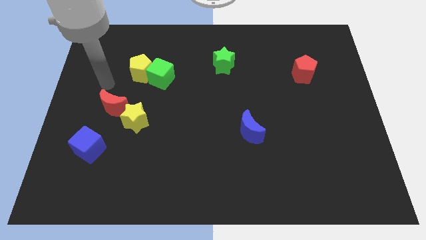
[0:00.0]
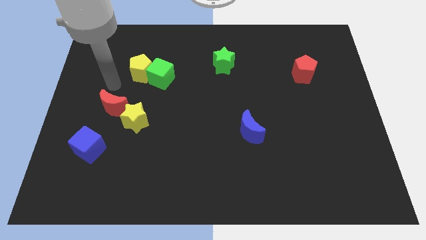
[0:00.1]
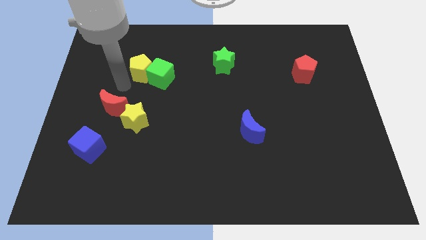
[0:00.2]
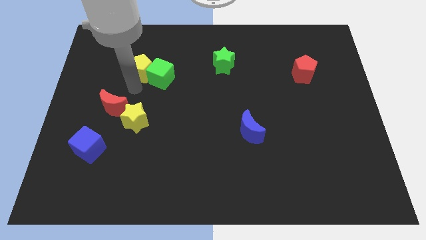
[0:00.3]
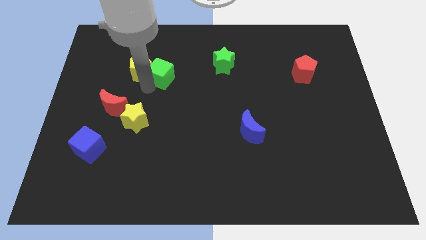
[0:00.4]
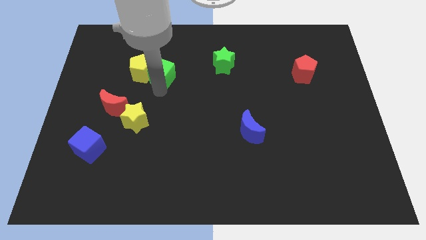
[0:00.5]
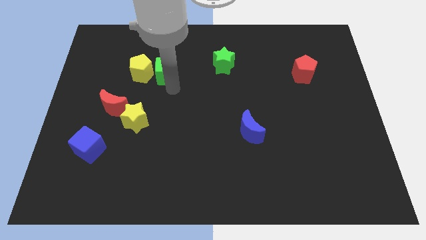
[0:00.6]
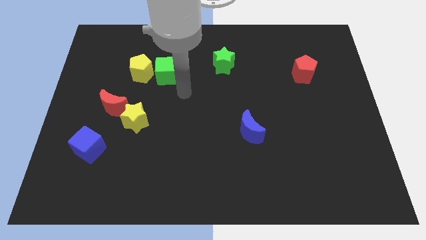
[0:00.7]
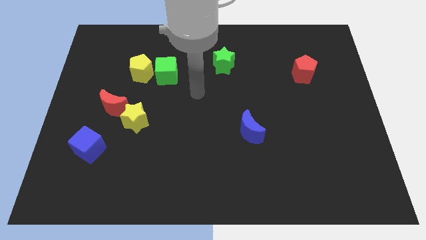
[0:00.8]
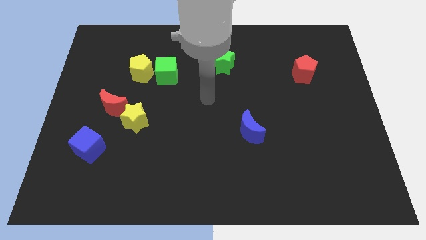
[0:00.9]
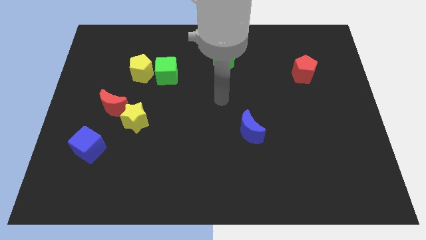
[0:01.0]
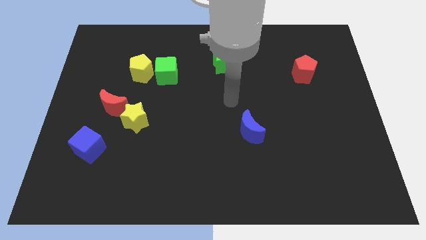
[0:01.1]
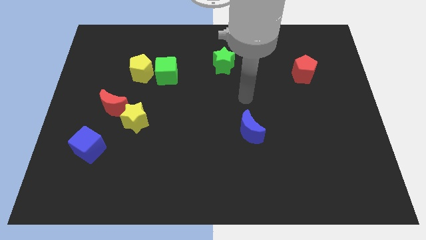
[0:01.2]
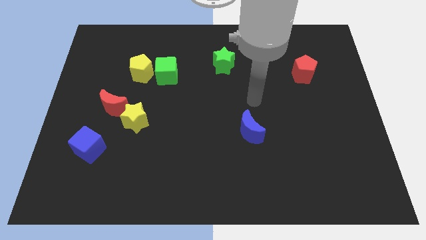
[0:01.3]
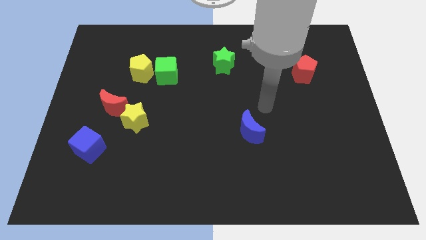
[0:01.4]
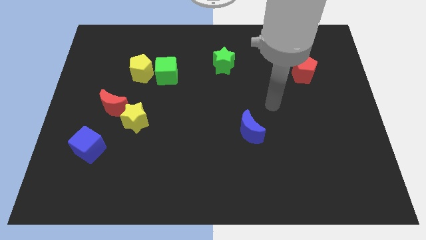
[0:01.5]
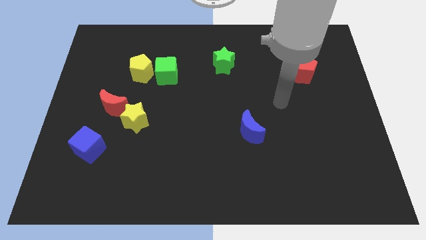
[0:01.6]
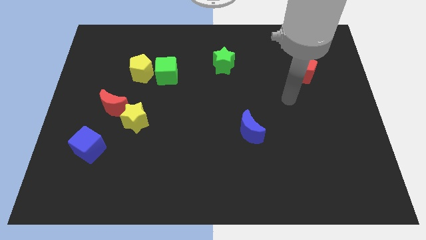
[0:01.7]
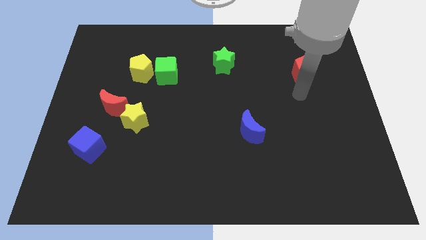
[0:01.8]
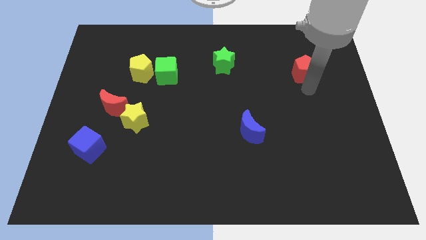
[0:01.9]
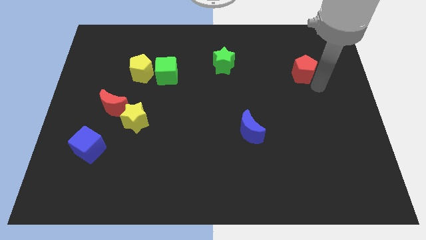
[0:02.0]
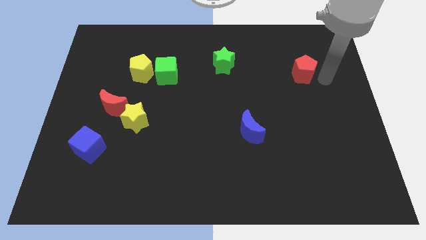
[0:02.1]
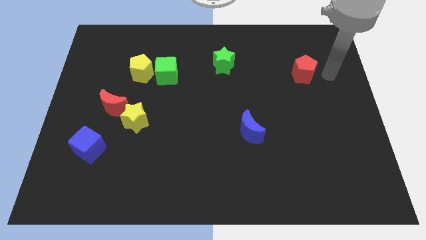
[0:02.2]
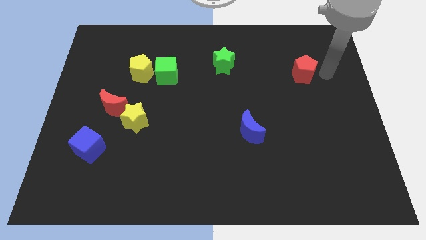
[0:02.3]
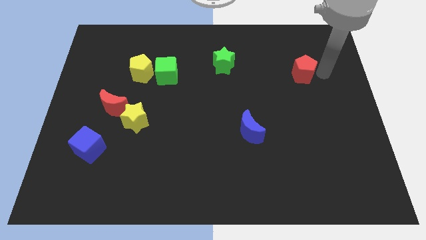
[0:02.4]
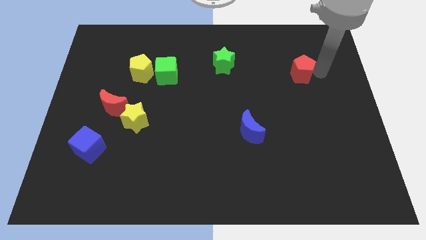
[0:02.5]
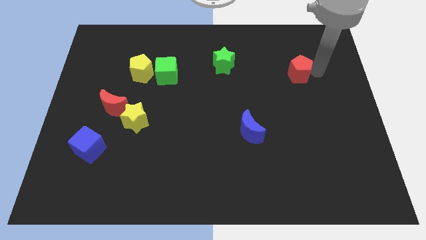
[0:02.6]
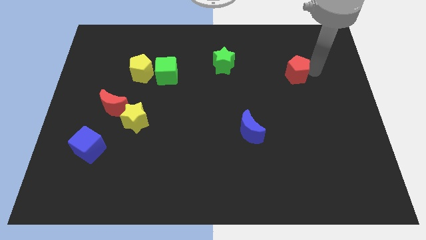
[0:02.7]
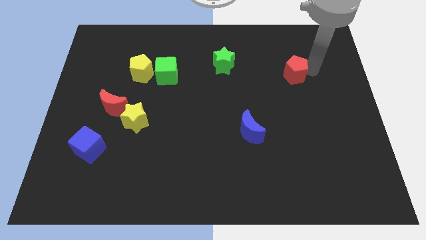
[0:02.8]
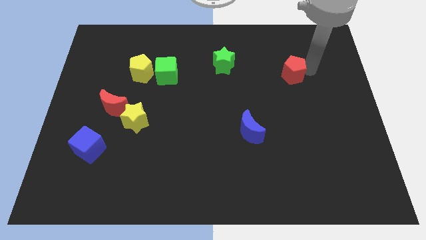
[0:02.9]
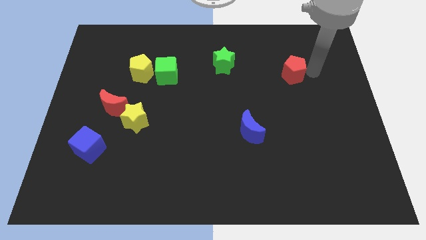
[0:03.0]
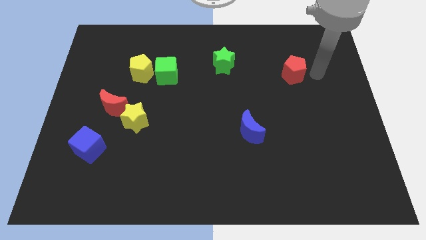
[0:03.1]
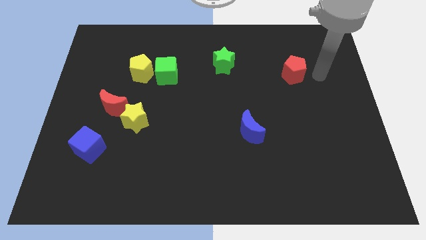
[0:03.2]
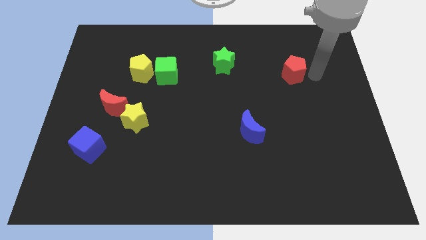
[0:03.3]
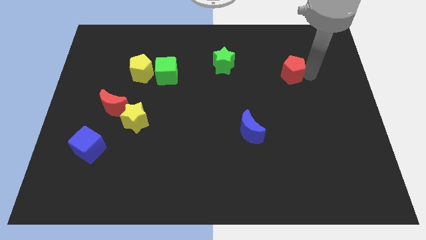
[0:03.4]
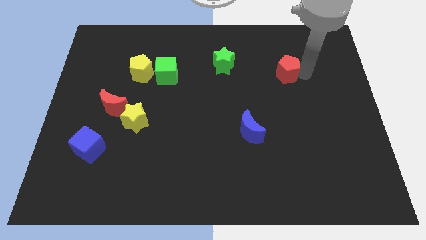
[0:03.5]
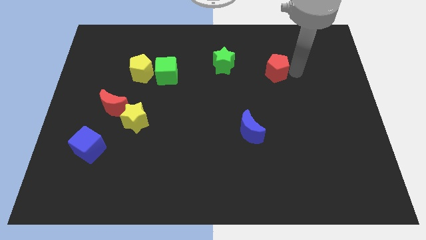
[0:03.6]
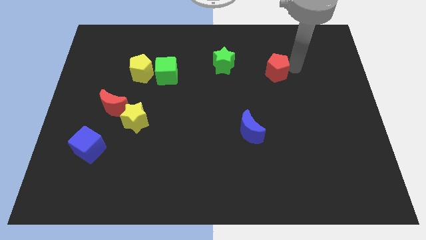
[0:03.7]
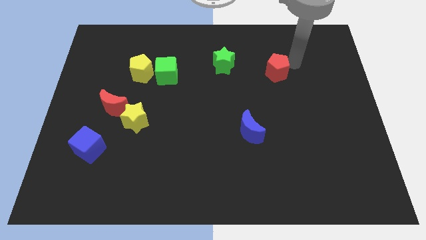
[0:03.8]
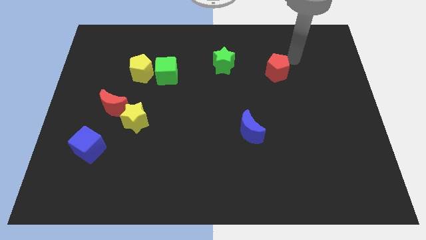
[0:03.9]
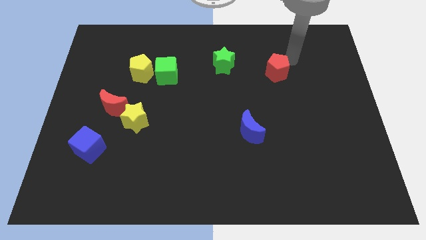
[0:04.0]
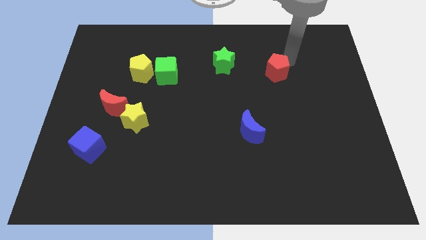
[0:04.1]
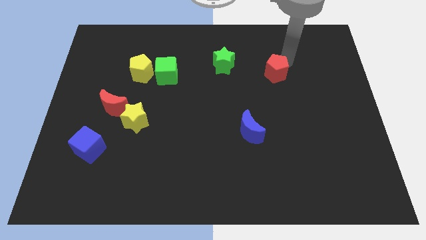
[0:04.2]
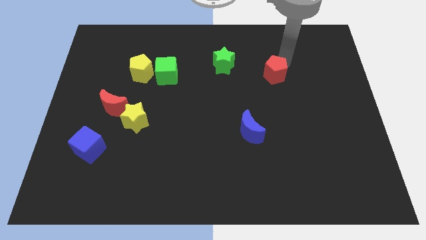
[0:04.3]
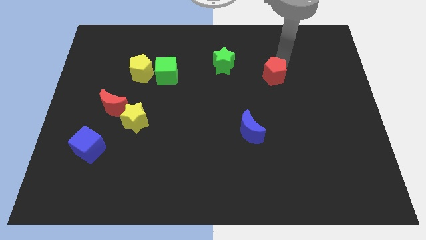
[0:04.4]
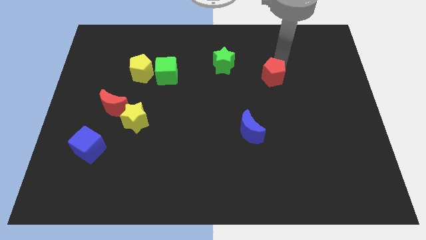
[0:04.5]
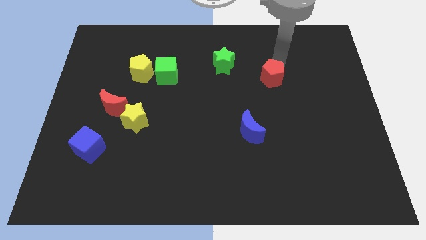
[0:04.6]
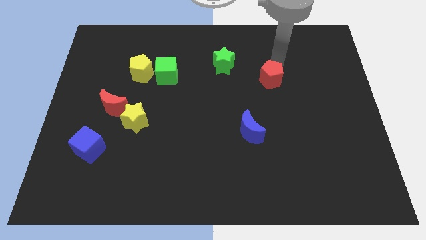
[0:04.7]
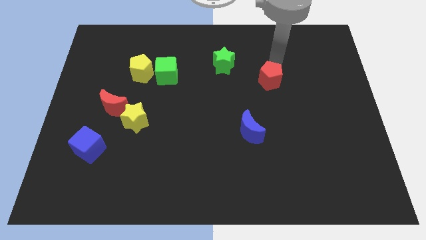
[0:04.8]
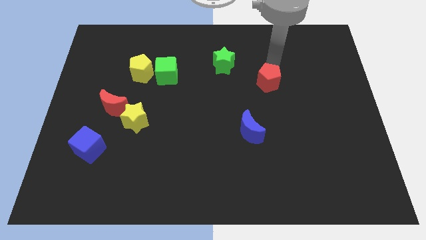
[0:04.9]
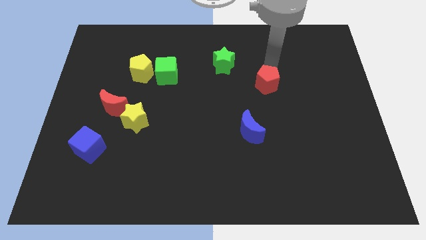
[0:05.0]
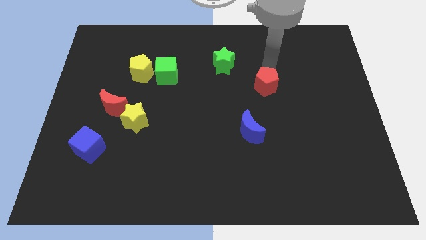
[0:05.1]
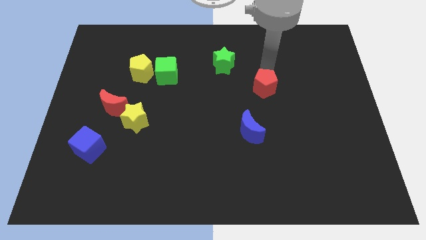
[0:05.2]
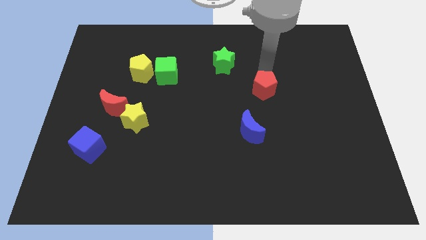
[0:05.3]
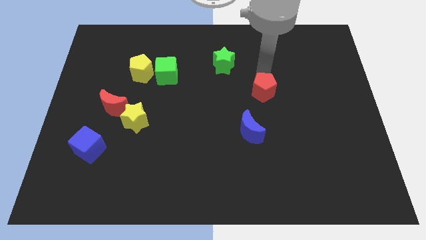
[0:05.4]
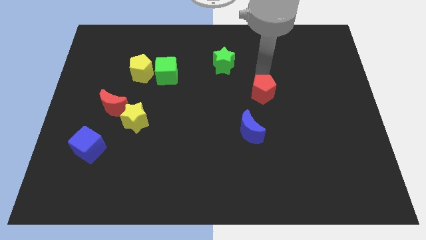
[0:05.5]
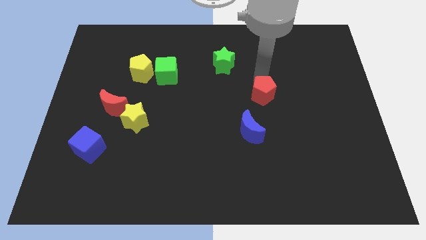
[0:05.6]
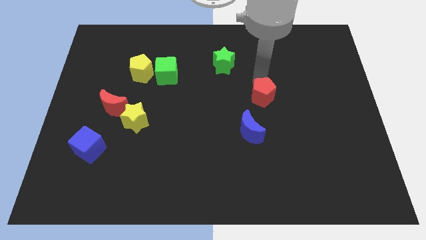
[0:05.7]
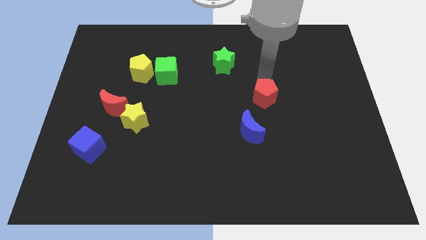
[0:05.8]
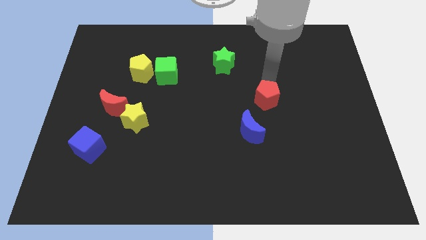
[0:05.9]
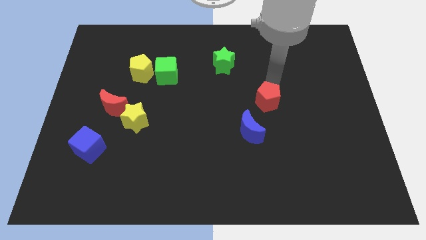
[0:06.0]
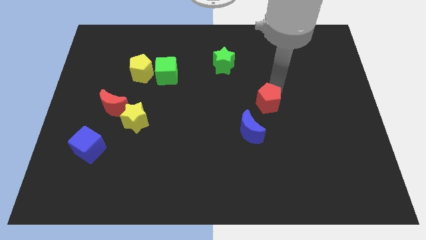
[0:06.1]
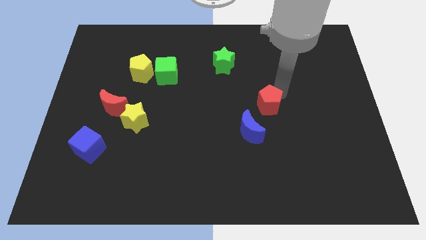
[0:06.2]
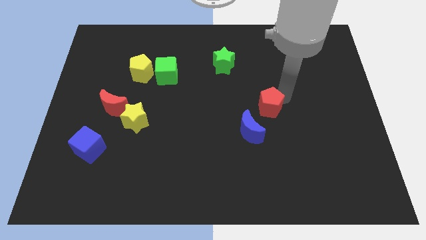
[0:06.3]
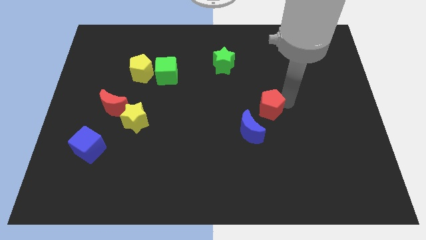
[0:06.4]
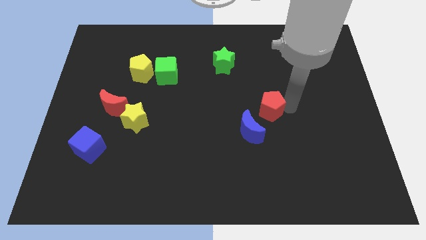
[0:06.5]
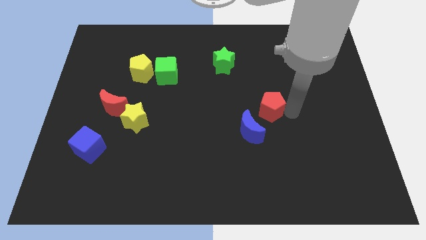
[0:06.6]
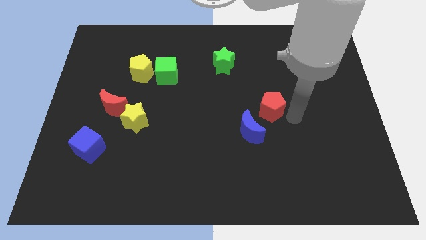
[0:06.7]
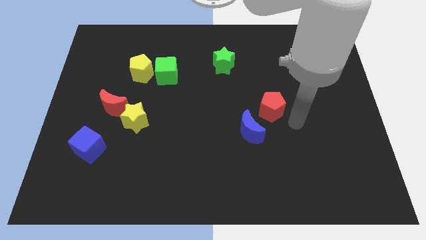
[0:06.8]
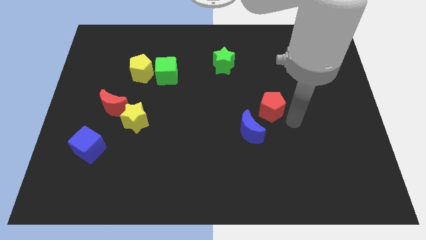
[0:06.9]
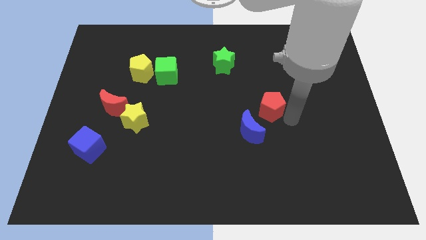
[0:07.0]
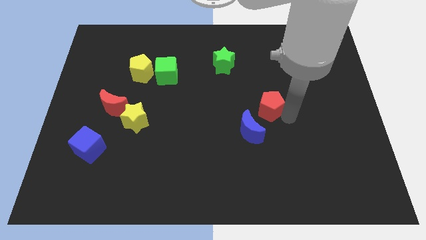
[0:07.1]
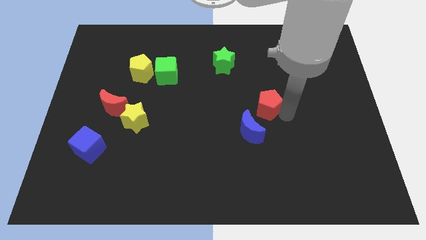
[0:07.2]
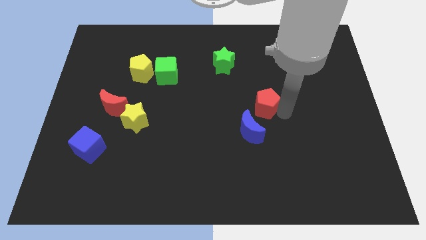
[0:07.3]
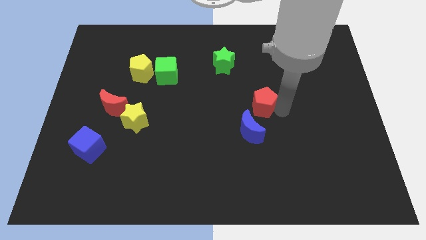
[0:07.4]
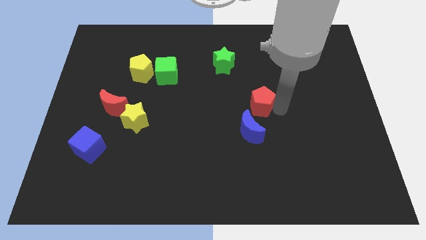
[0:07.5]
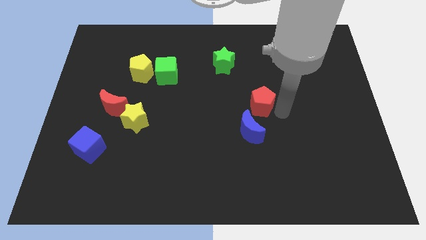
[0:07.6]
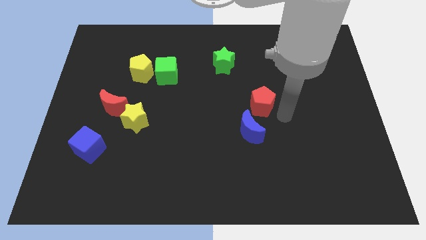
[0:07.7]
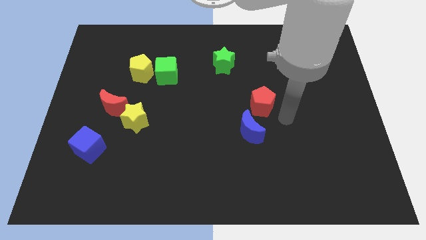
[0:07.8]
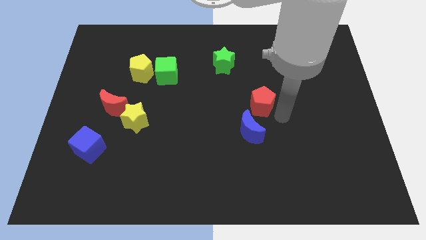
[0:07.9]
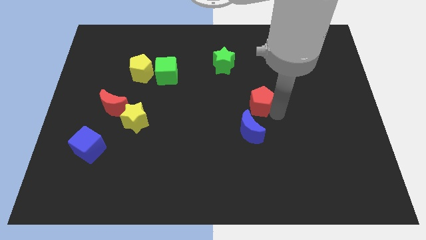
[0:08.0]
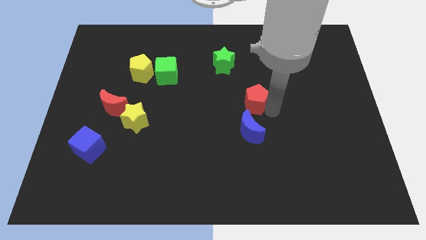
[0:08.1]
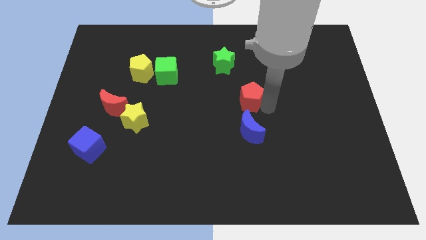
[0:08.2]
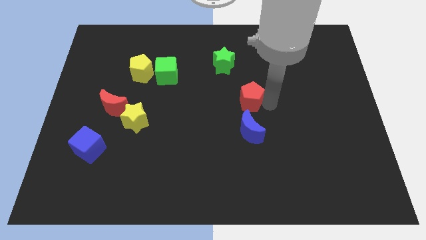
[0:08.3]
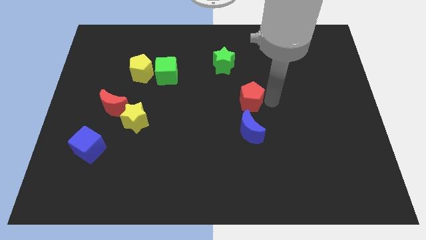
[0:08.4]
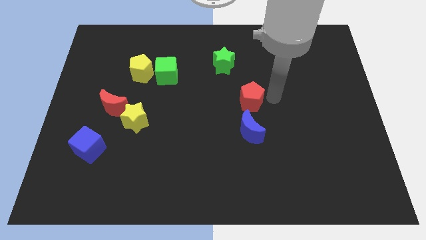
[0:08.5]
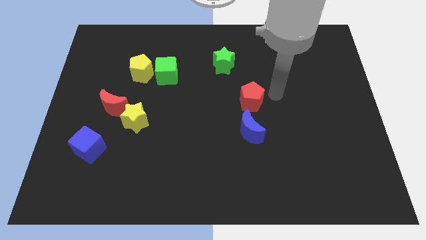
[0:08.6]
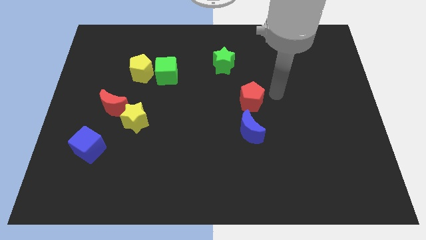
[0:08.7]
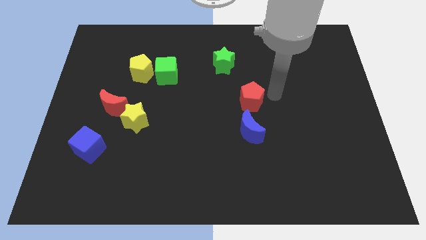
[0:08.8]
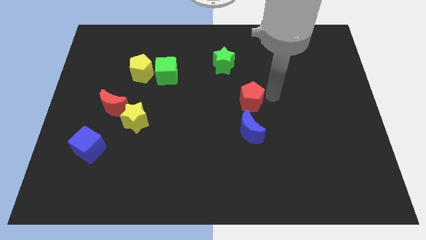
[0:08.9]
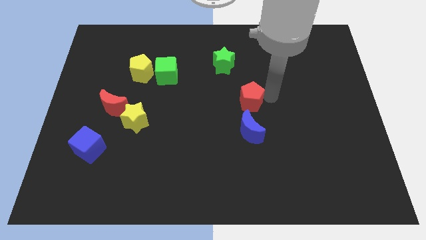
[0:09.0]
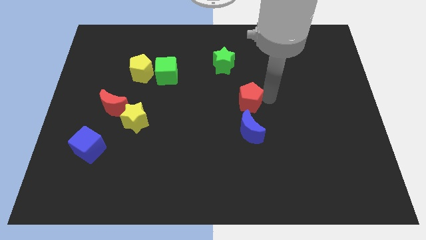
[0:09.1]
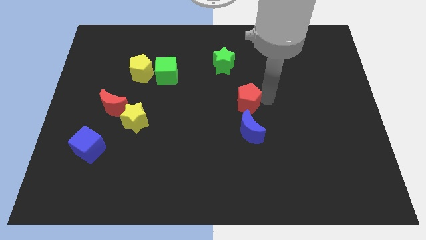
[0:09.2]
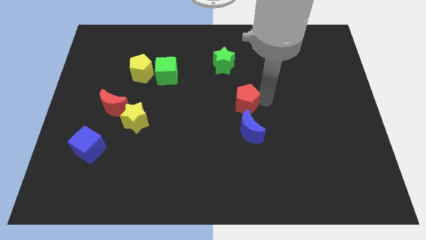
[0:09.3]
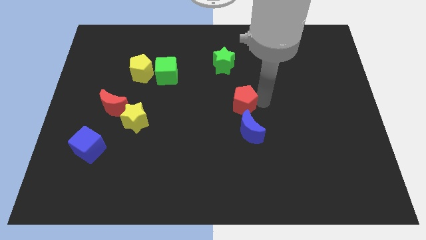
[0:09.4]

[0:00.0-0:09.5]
push the red pentagon to the top left side of the blue moon
